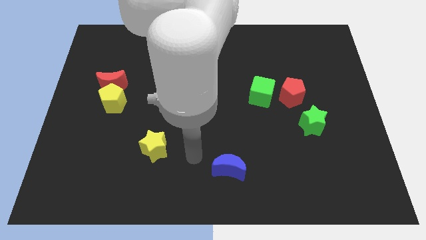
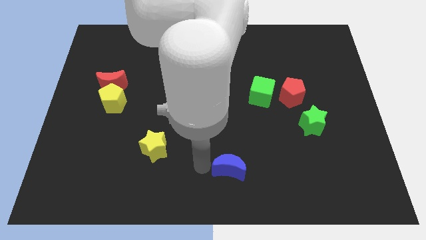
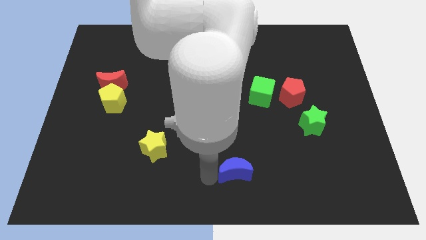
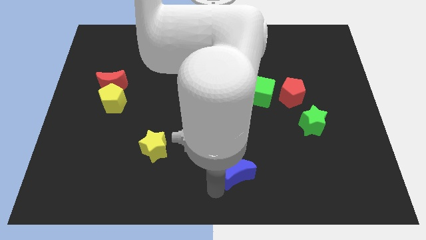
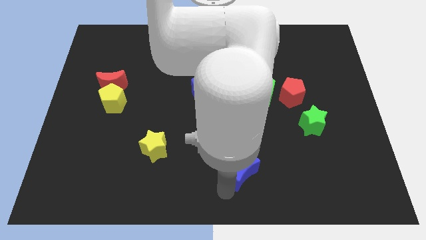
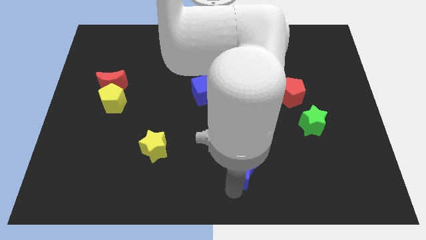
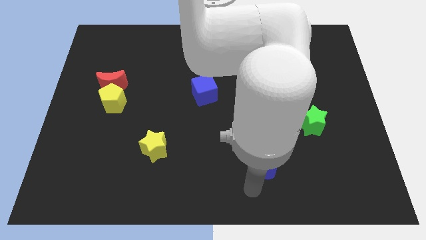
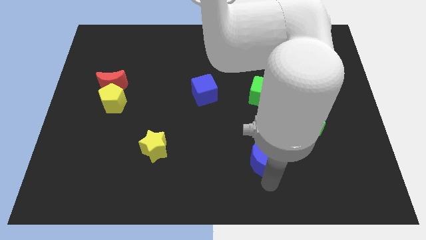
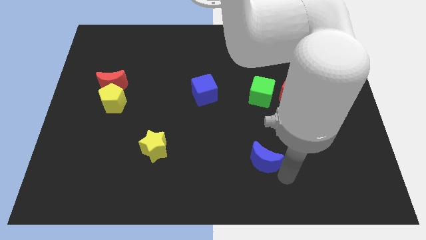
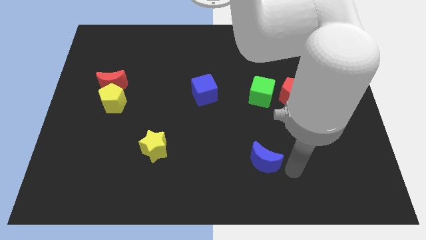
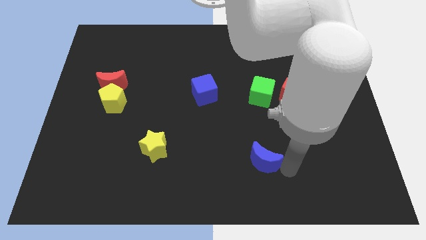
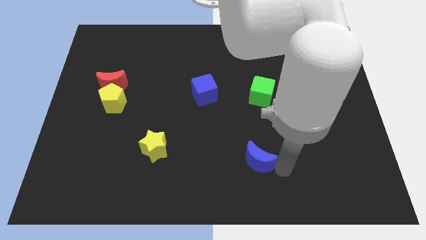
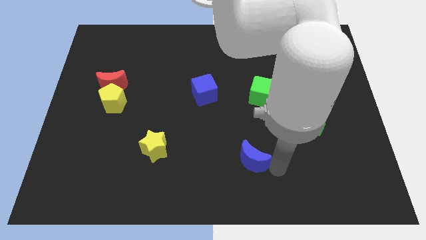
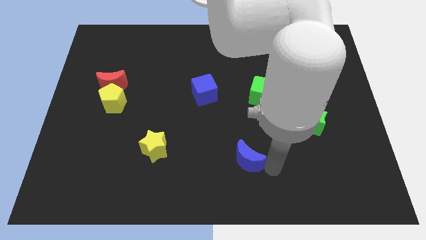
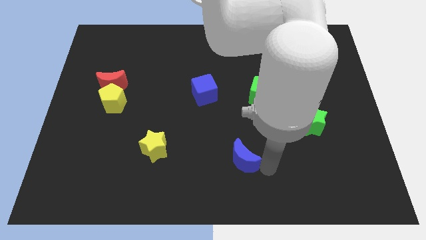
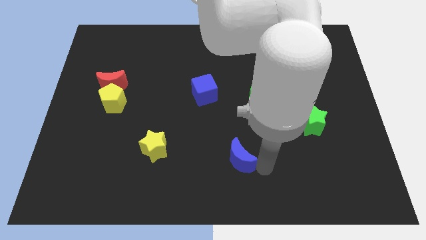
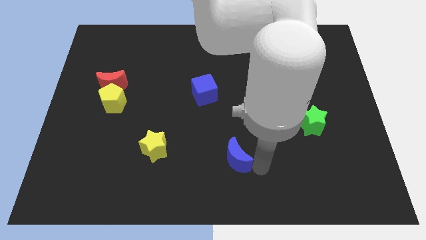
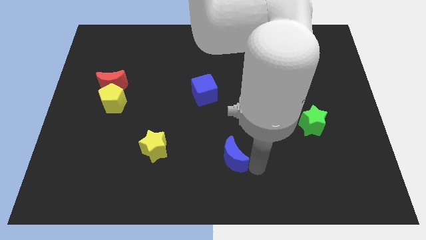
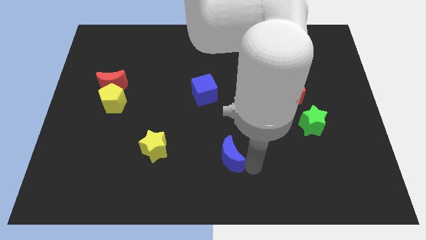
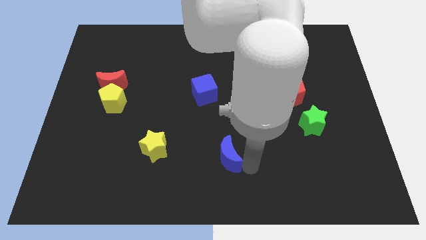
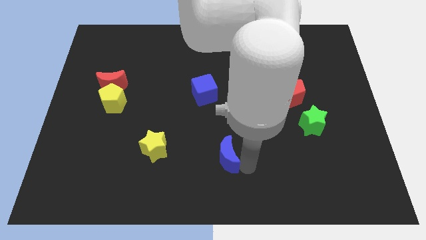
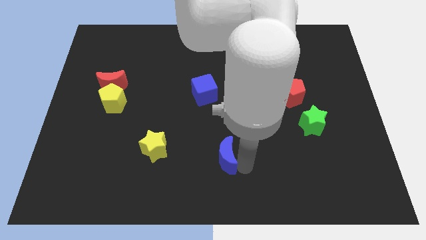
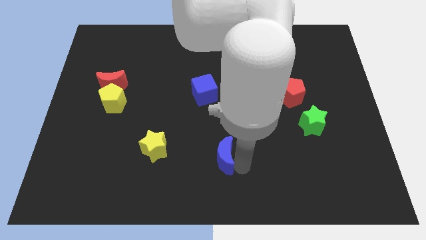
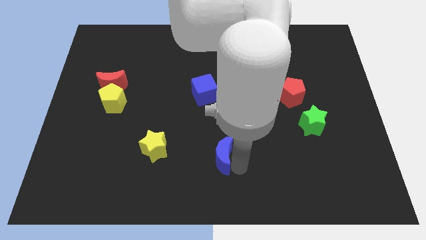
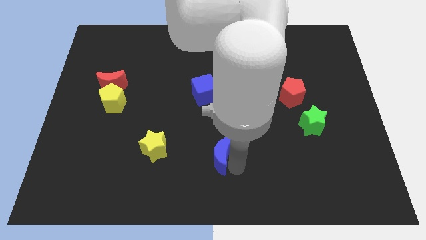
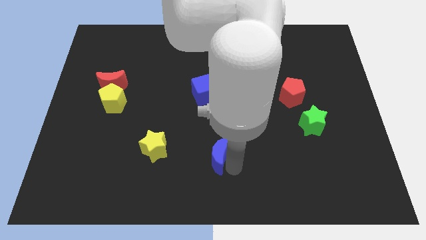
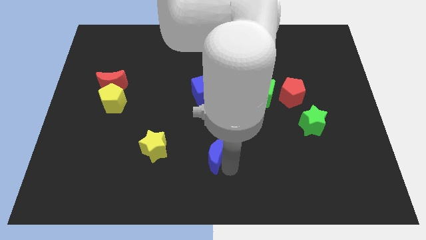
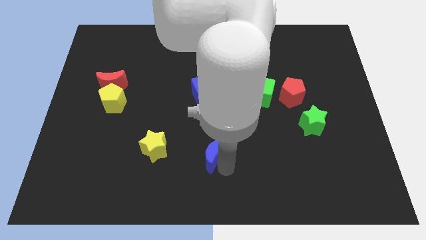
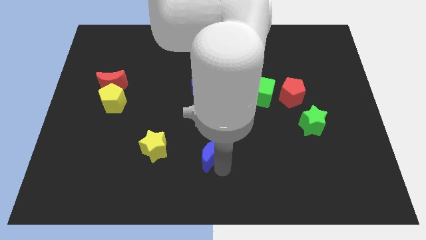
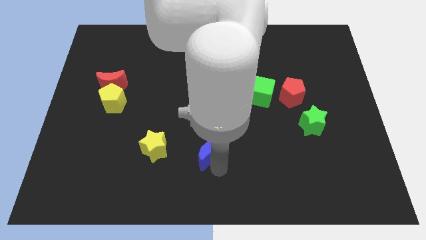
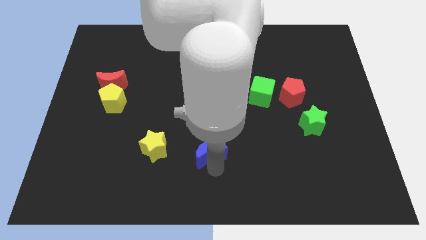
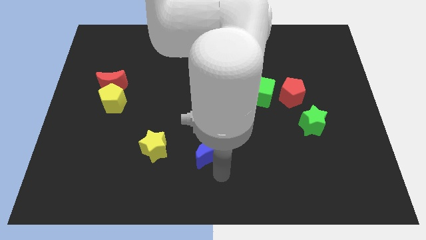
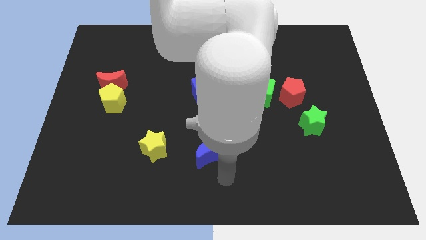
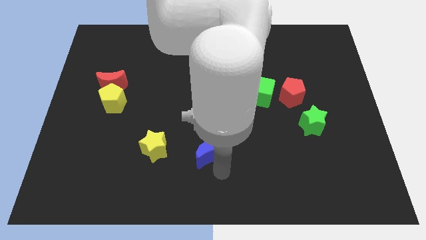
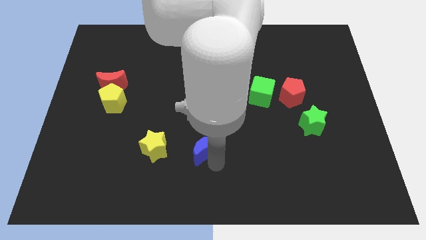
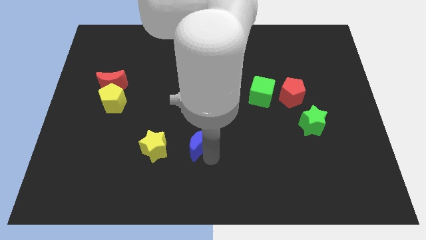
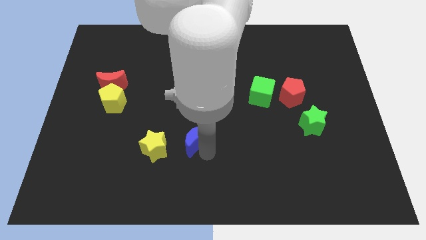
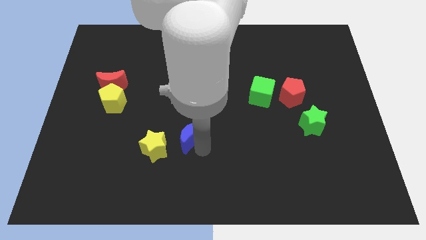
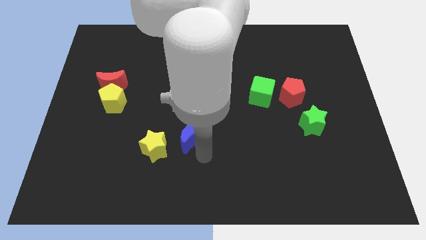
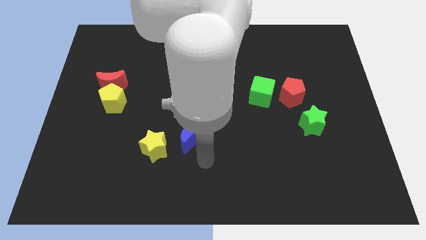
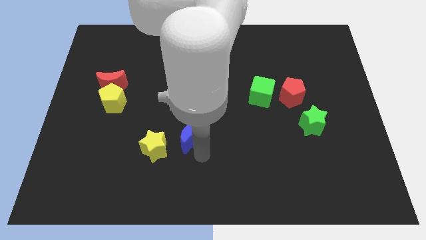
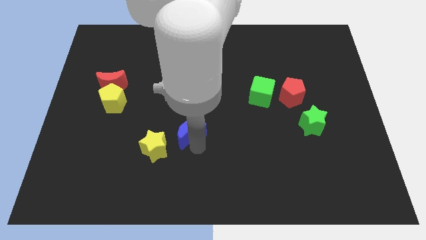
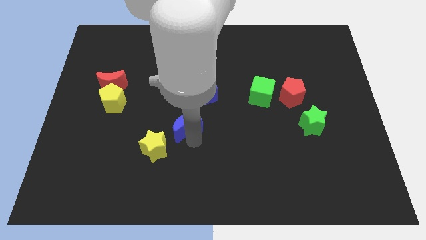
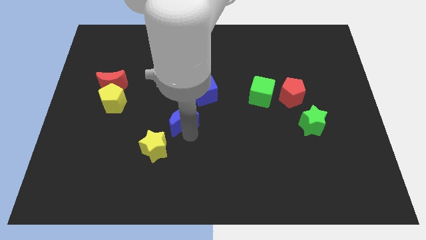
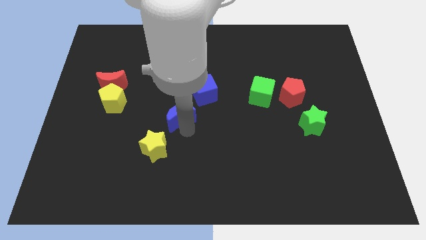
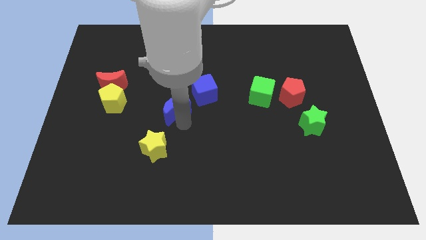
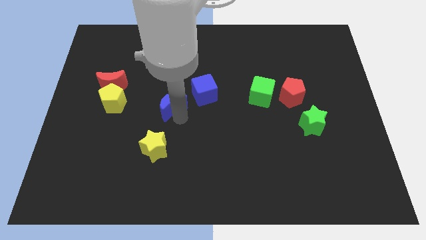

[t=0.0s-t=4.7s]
push the blue moon to the left of the blue cube

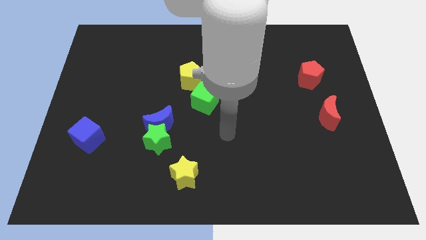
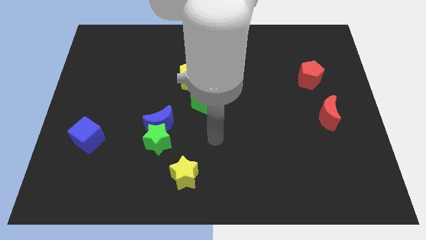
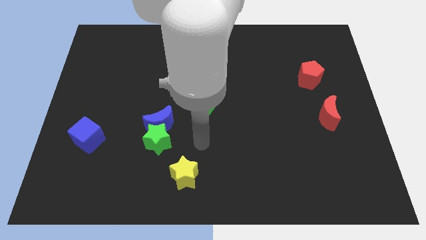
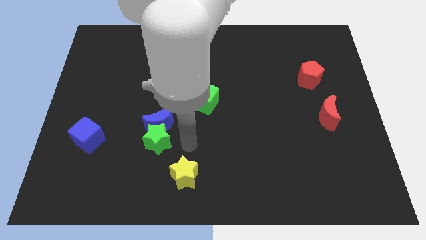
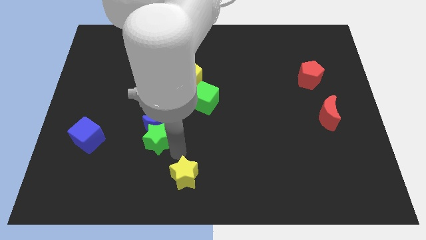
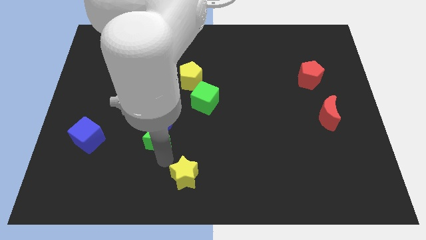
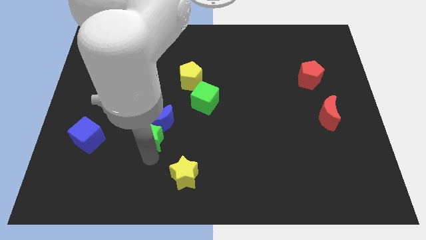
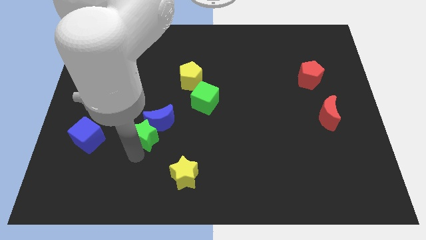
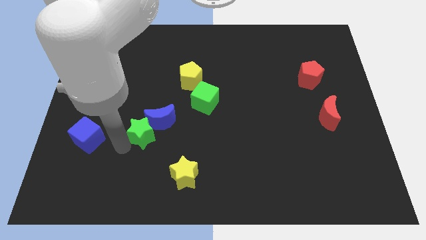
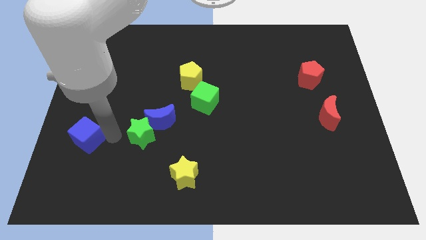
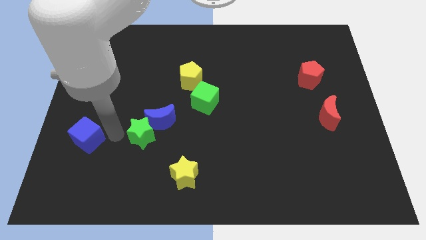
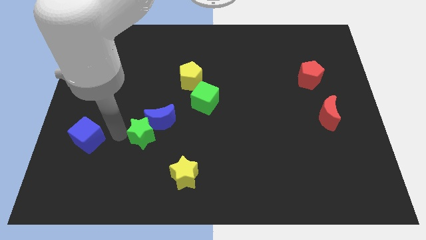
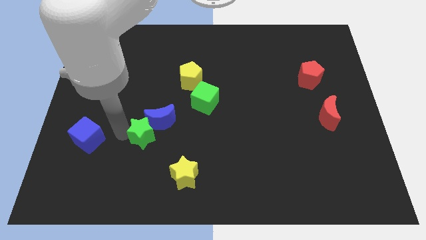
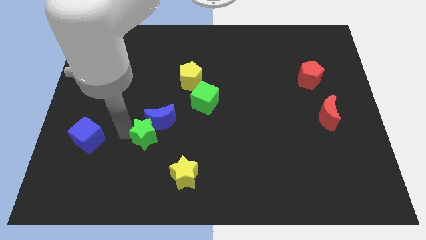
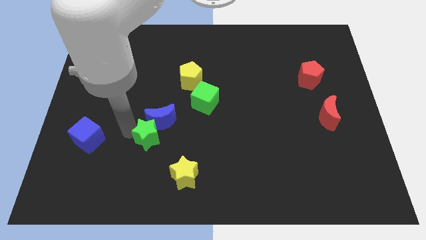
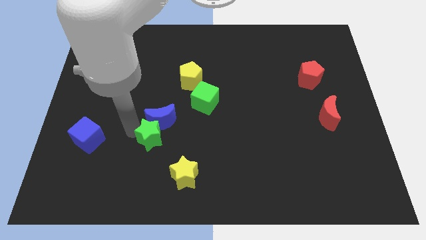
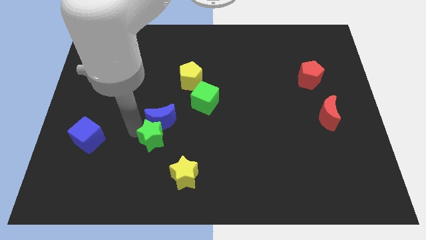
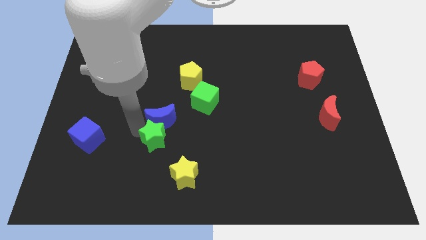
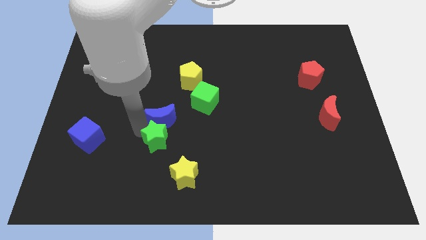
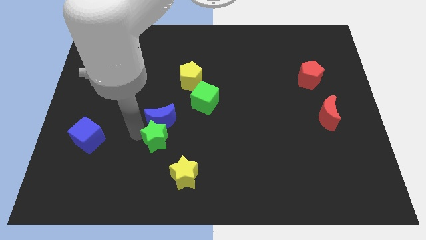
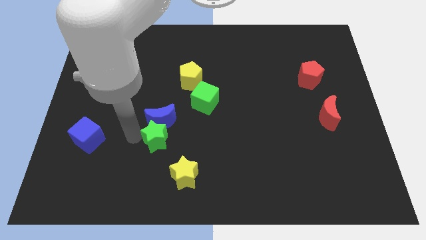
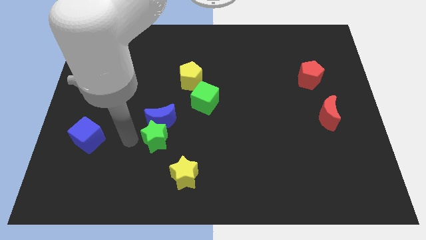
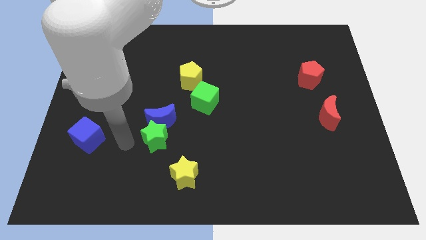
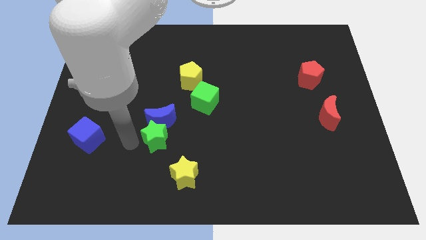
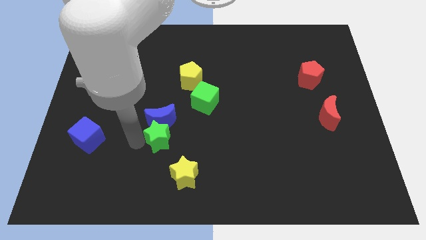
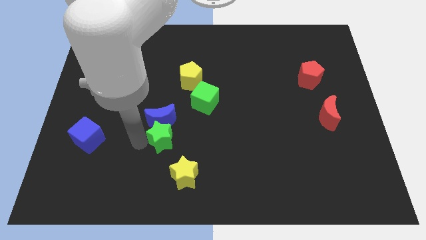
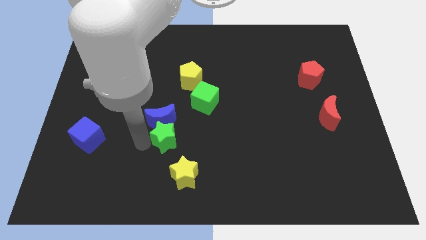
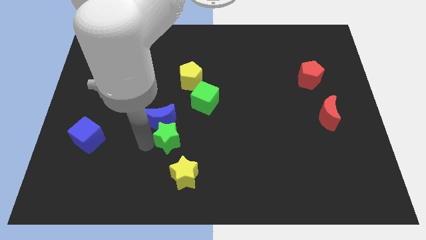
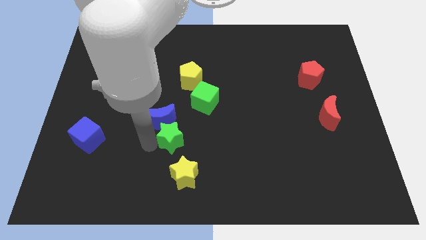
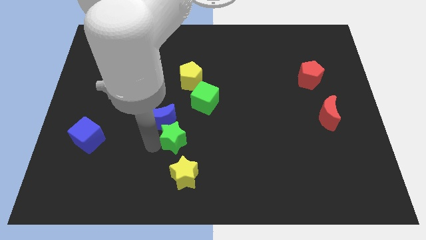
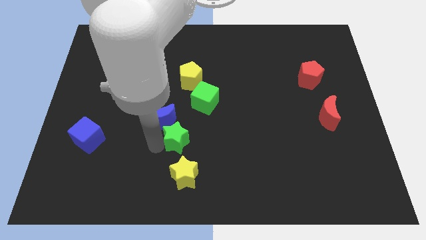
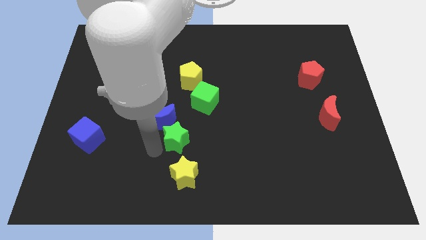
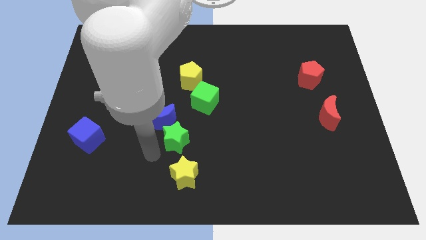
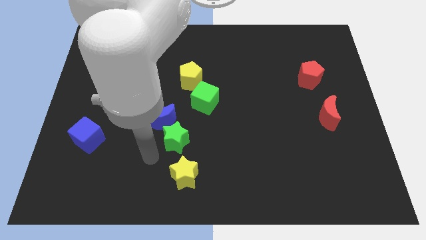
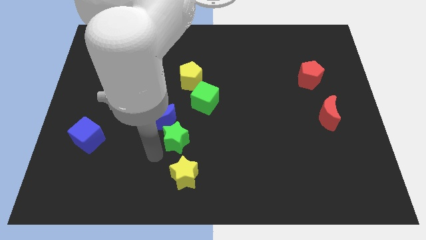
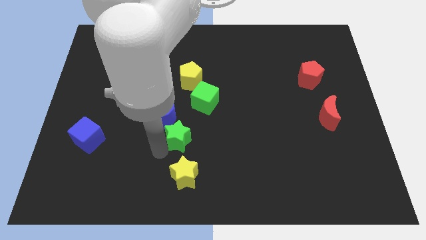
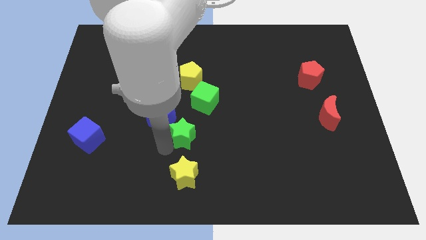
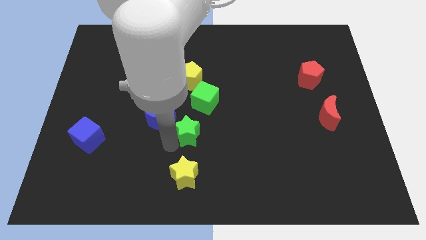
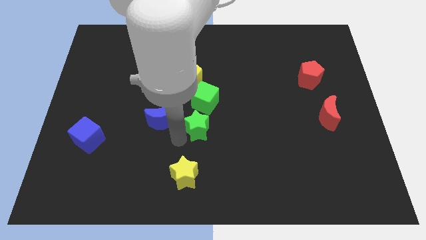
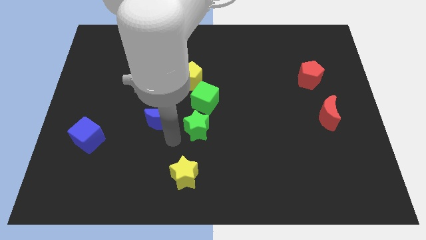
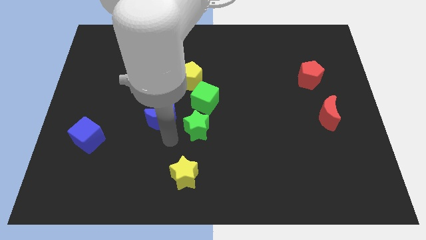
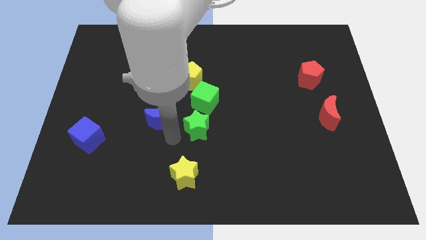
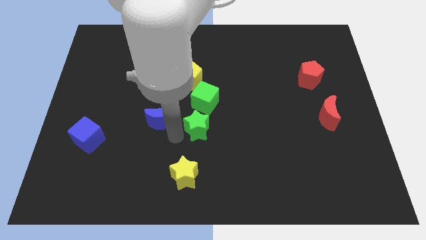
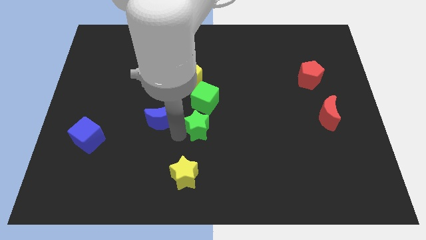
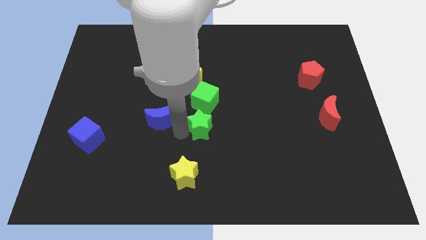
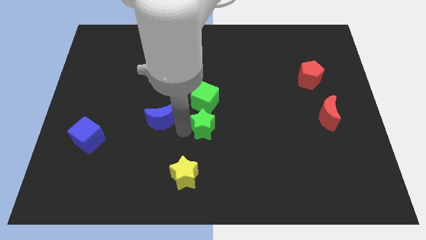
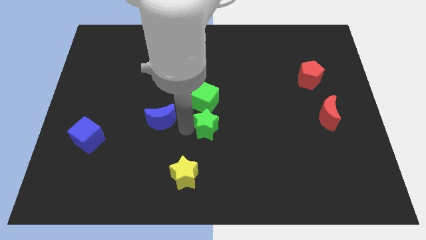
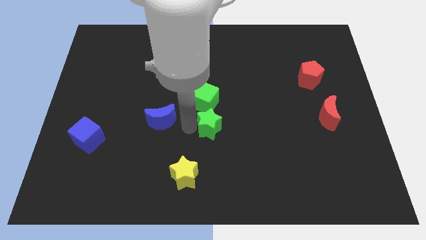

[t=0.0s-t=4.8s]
move the green star diagonally down and to the right of the green cube
